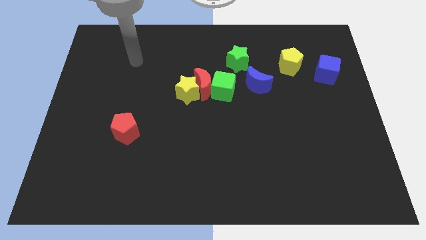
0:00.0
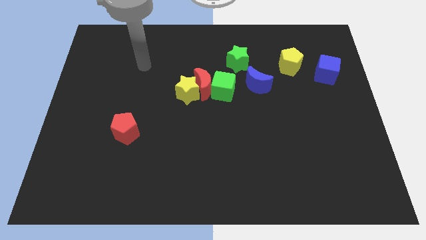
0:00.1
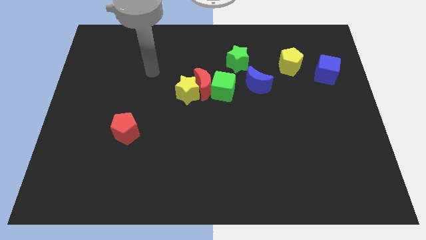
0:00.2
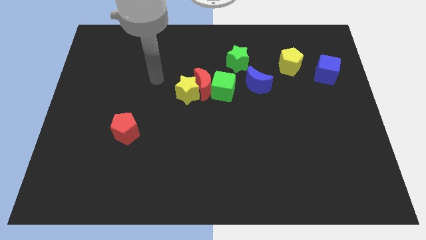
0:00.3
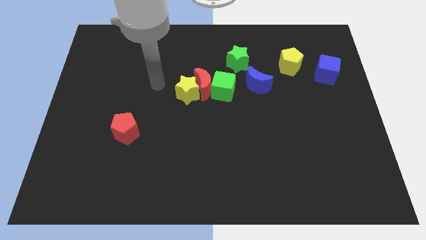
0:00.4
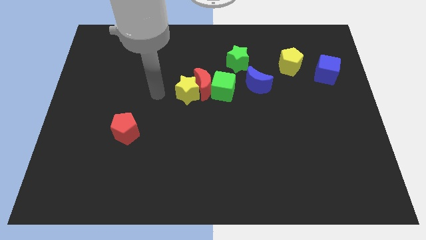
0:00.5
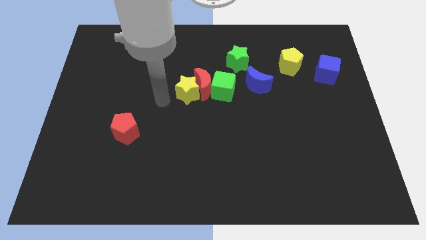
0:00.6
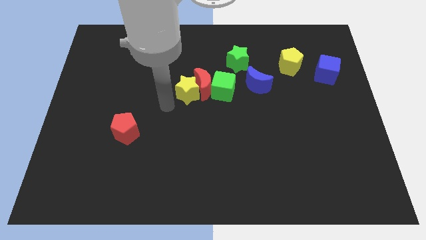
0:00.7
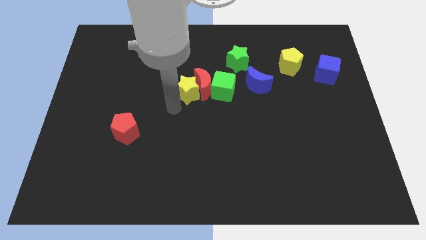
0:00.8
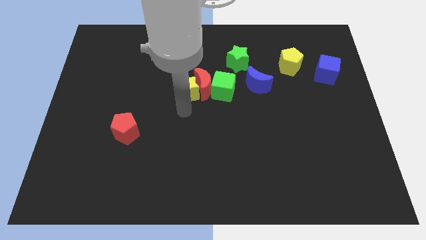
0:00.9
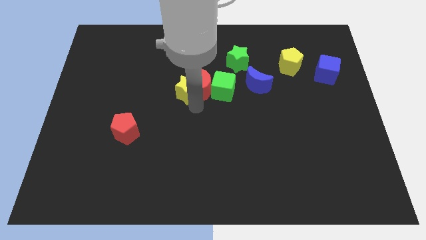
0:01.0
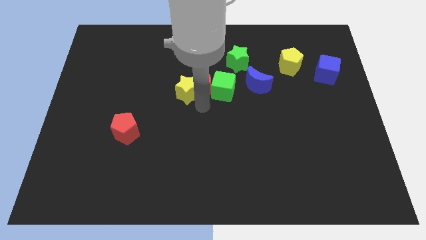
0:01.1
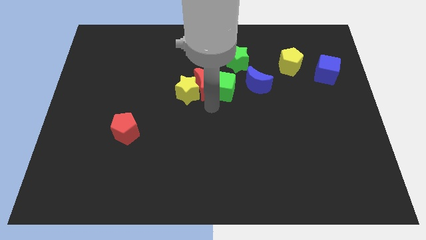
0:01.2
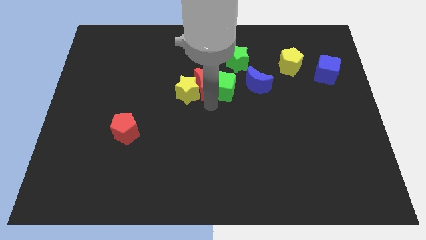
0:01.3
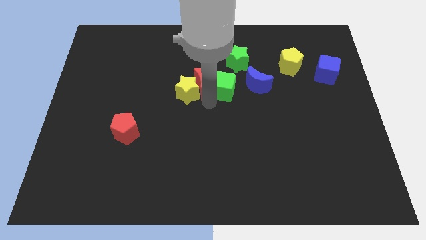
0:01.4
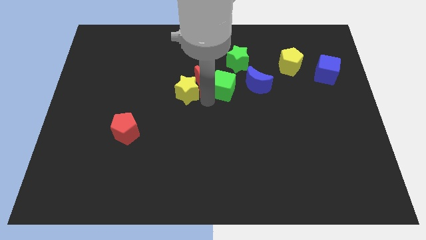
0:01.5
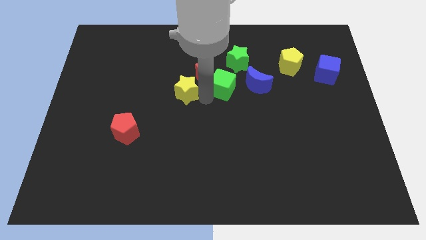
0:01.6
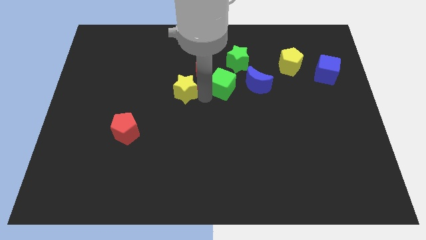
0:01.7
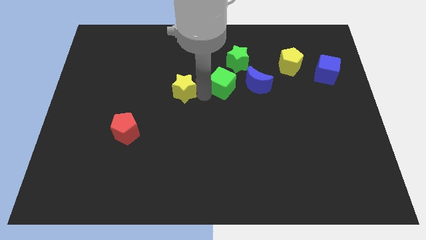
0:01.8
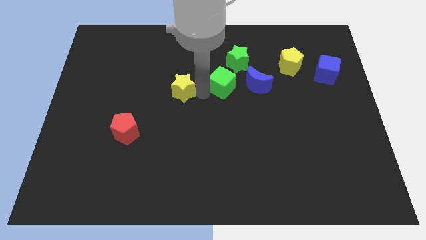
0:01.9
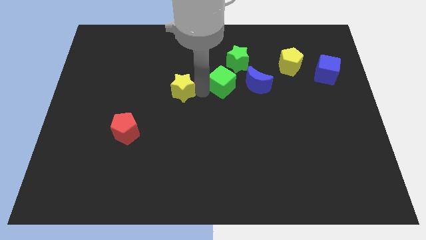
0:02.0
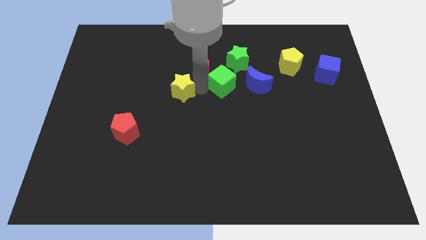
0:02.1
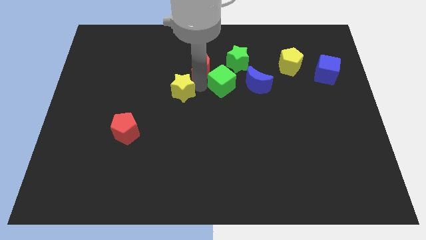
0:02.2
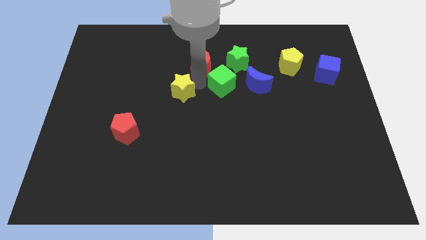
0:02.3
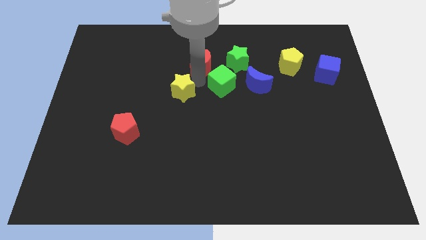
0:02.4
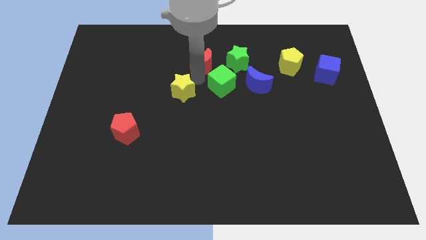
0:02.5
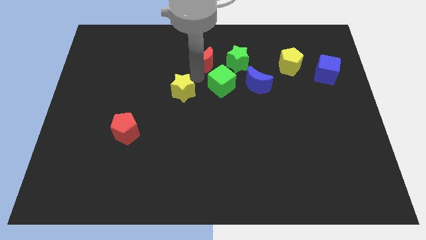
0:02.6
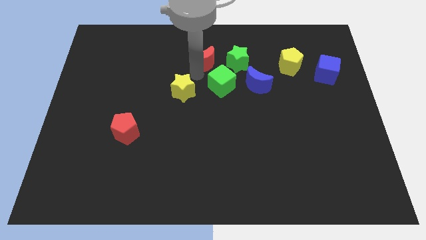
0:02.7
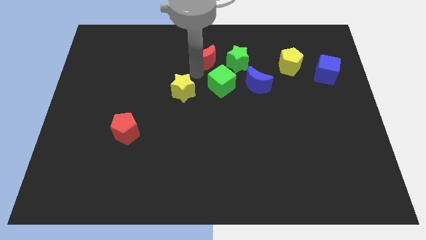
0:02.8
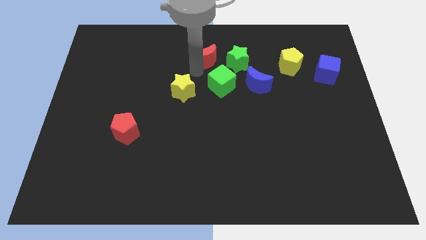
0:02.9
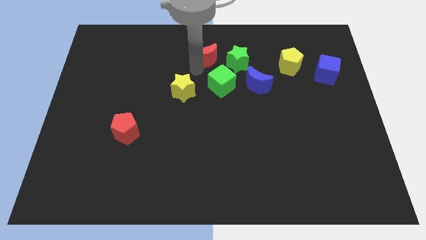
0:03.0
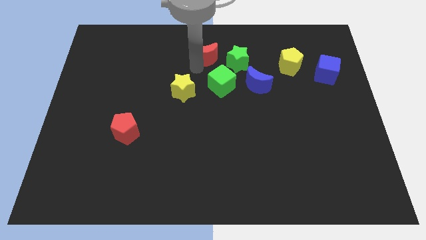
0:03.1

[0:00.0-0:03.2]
pull the red moon apart from the yellow star and green cube

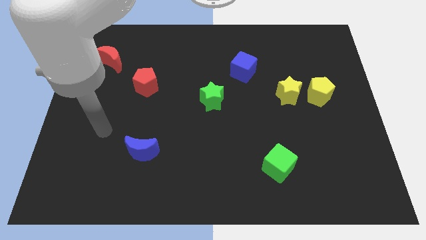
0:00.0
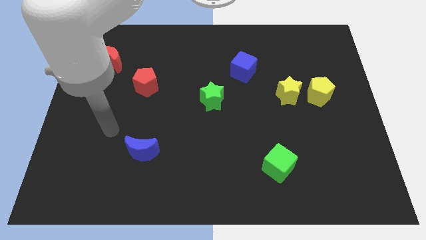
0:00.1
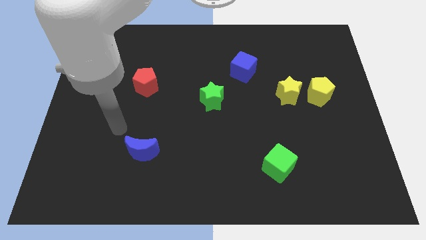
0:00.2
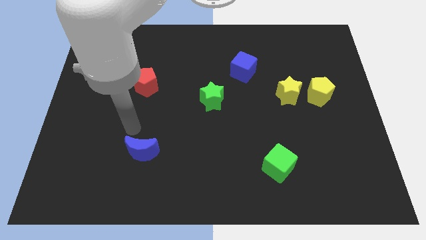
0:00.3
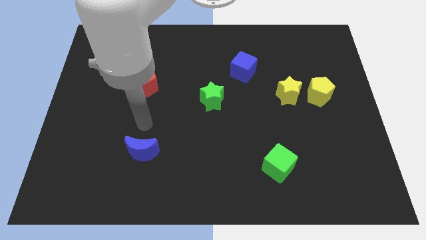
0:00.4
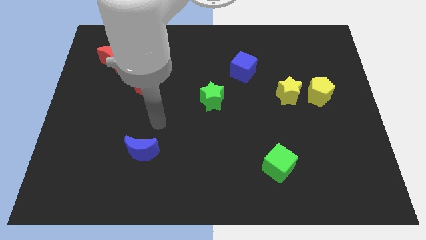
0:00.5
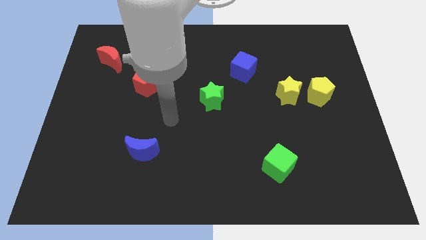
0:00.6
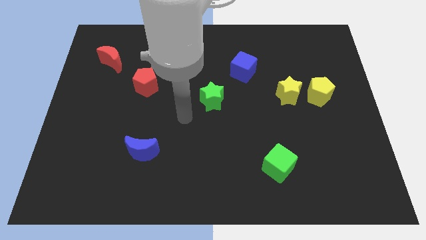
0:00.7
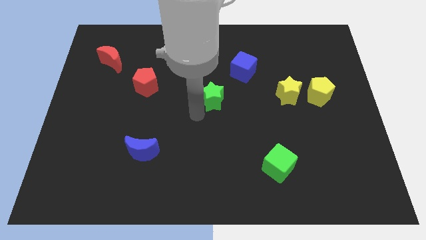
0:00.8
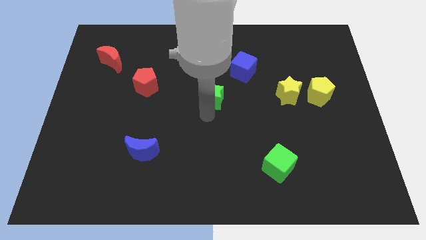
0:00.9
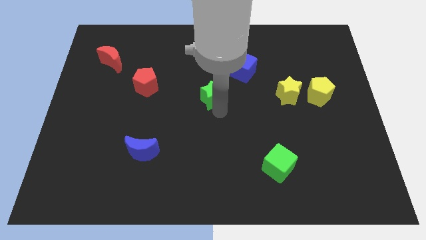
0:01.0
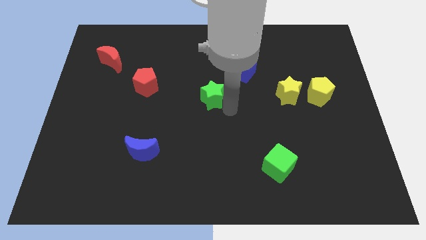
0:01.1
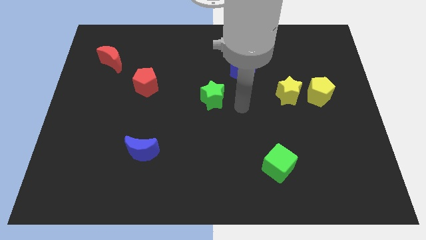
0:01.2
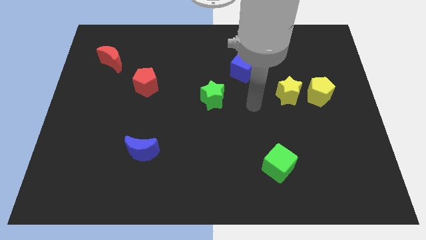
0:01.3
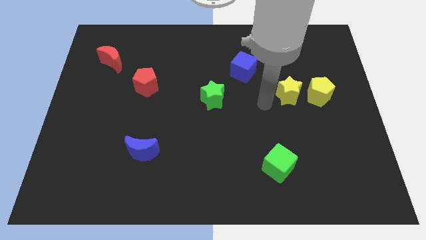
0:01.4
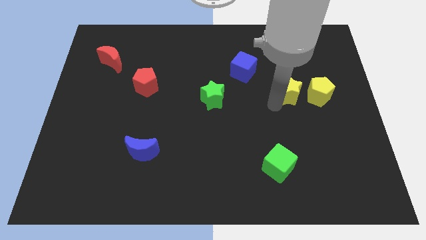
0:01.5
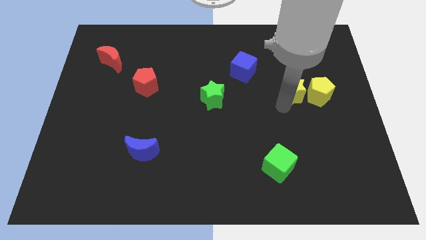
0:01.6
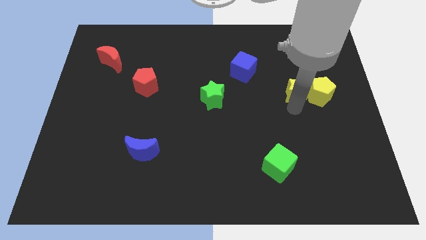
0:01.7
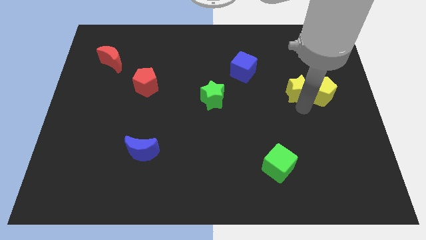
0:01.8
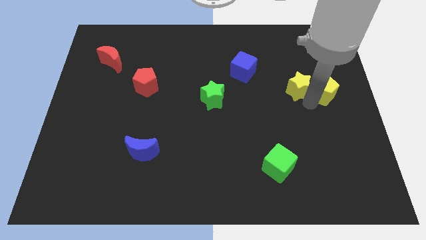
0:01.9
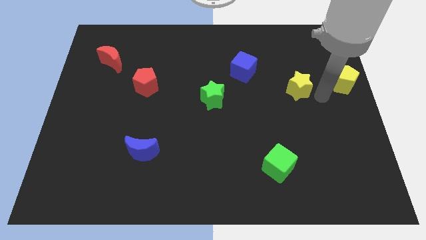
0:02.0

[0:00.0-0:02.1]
separate the yellow star from the yellow pentagon

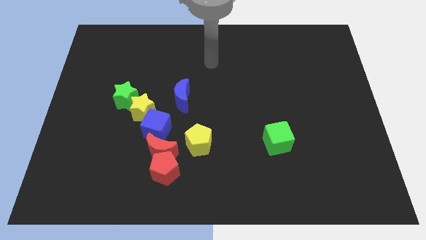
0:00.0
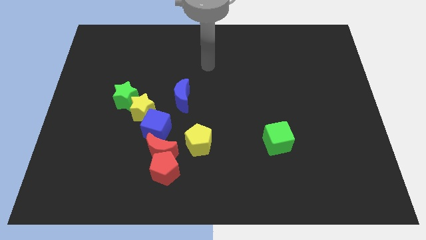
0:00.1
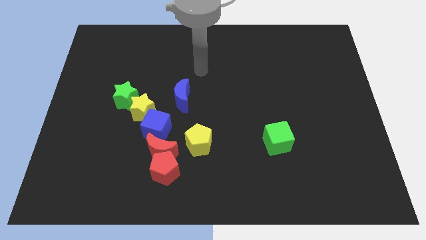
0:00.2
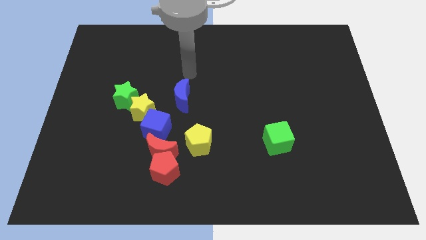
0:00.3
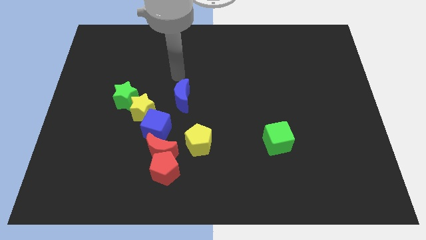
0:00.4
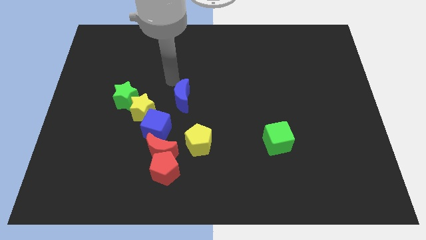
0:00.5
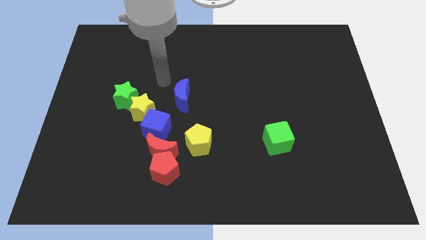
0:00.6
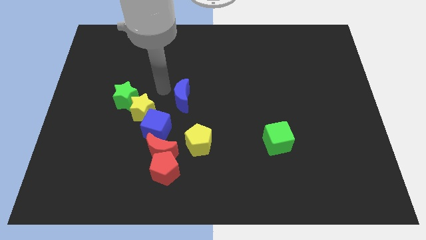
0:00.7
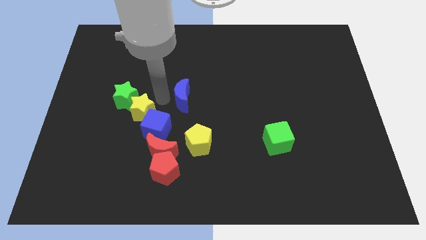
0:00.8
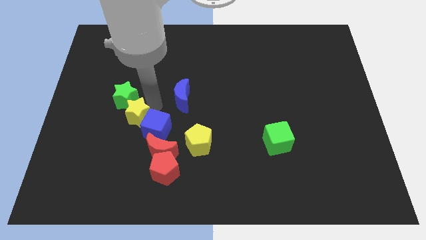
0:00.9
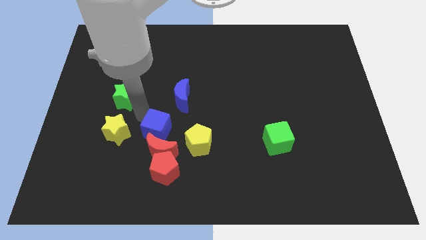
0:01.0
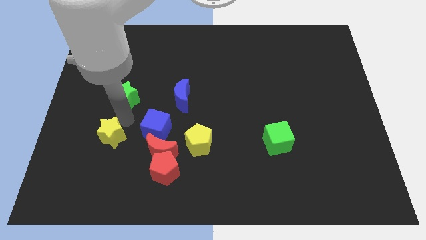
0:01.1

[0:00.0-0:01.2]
separate the green star from the yellow star

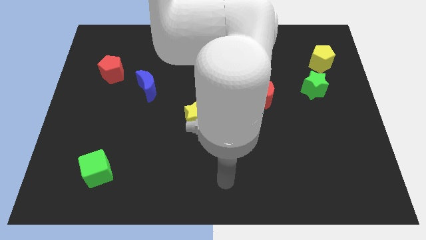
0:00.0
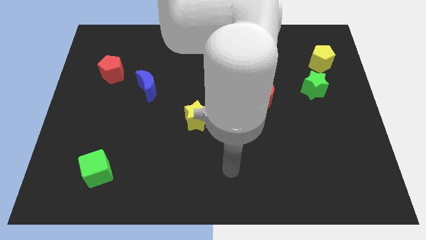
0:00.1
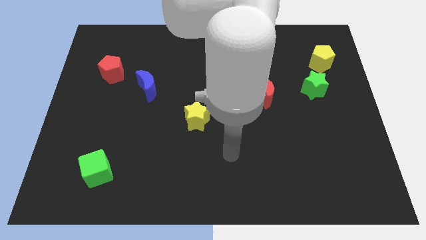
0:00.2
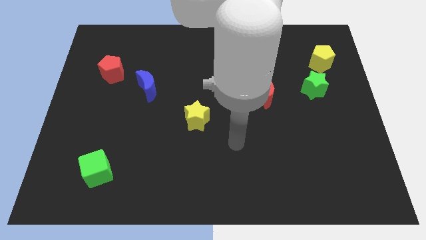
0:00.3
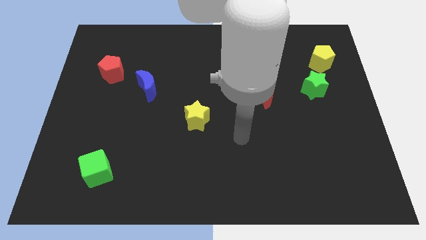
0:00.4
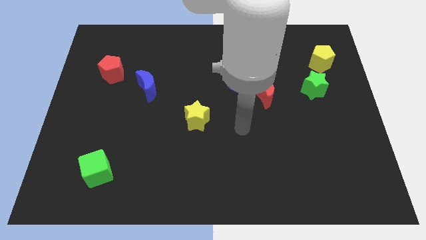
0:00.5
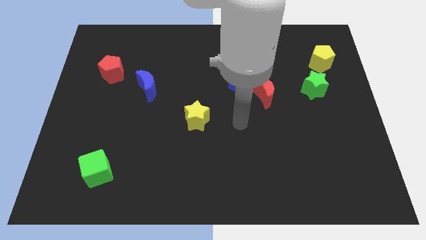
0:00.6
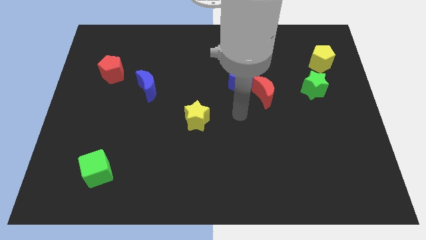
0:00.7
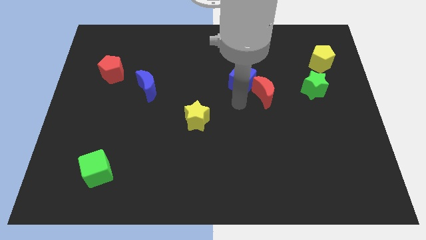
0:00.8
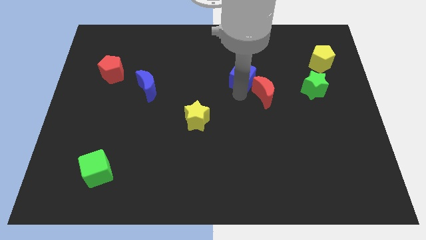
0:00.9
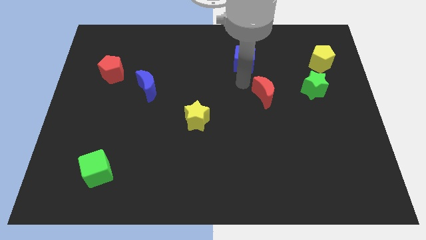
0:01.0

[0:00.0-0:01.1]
move the red moon away from the blue cube

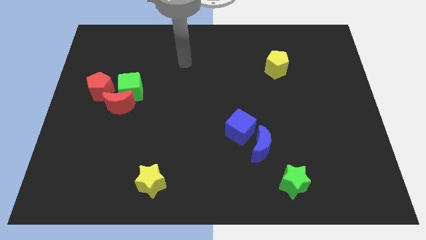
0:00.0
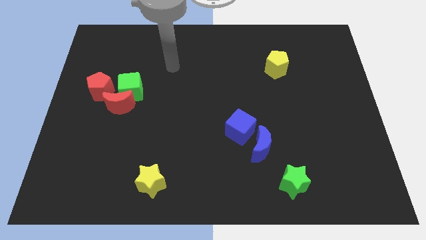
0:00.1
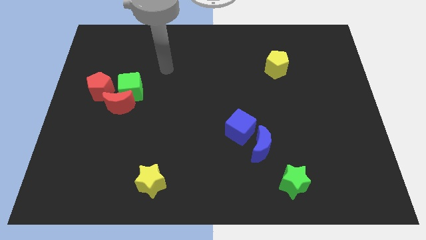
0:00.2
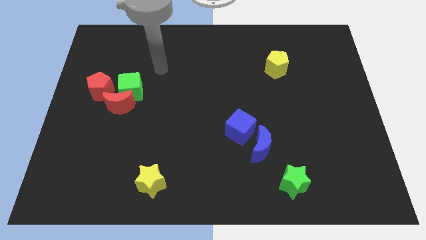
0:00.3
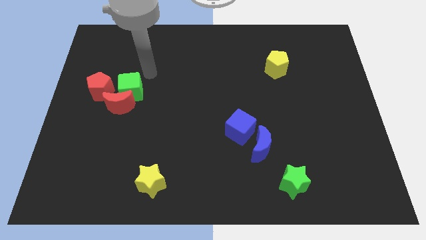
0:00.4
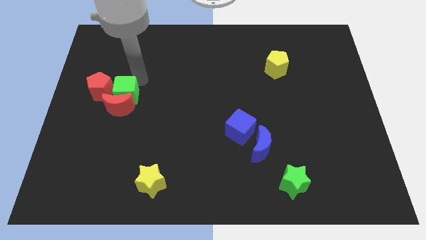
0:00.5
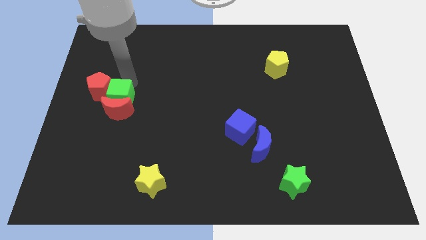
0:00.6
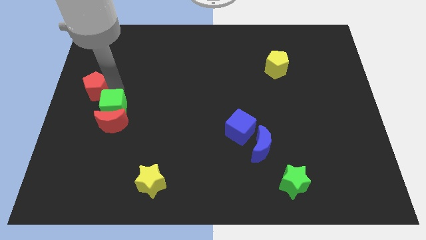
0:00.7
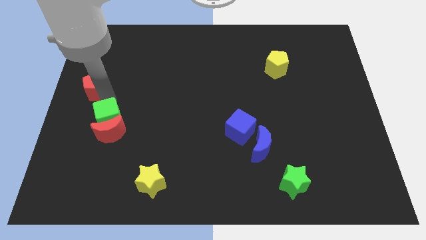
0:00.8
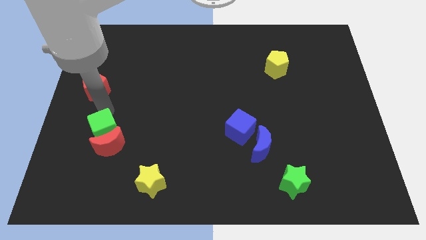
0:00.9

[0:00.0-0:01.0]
separate the red moon from the green cube and red pentagon

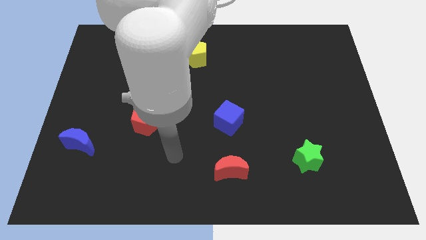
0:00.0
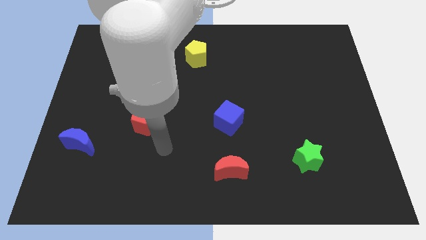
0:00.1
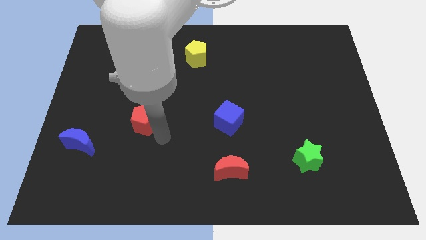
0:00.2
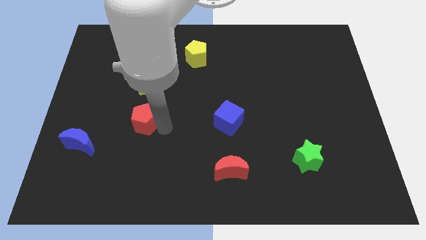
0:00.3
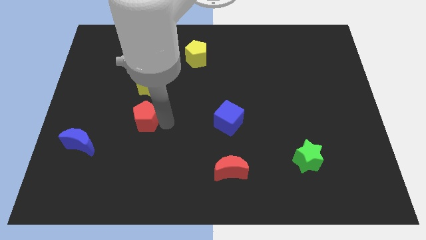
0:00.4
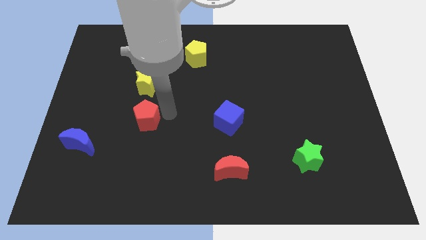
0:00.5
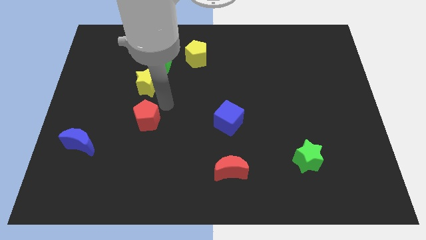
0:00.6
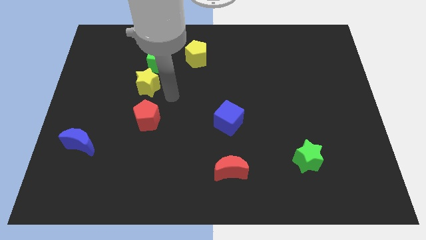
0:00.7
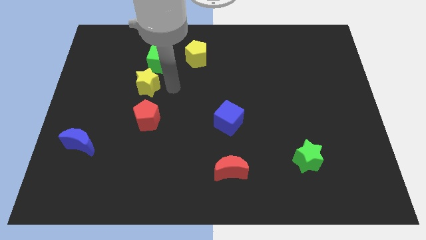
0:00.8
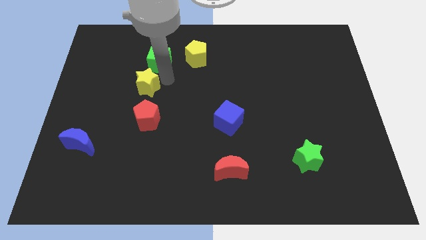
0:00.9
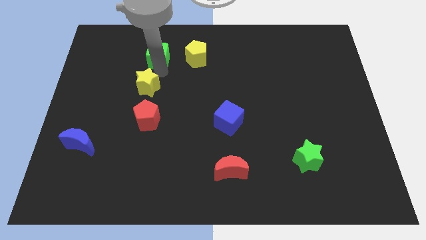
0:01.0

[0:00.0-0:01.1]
separate the yellow star from the green cube
